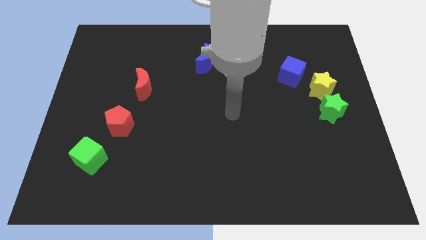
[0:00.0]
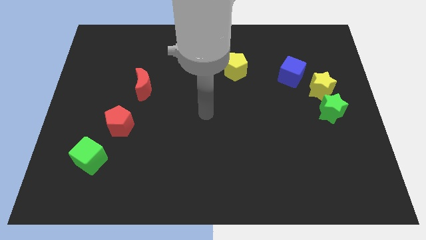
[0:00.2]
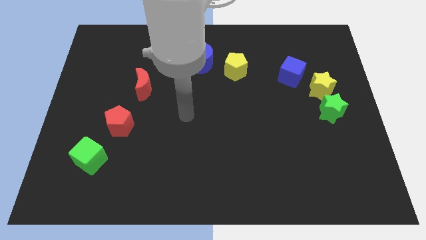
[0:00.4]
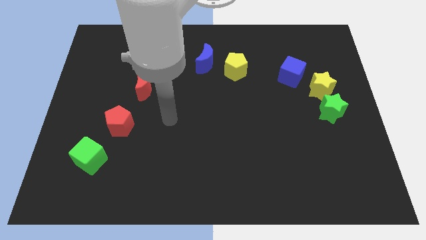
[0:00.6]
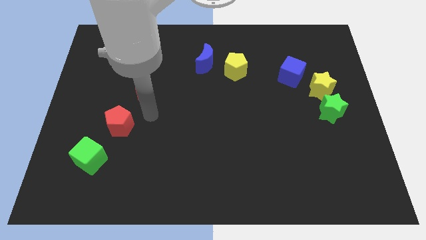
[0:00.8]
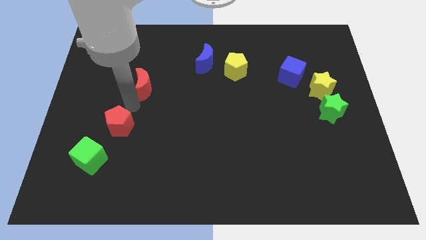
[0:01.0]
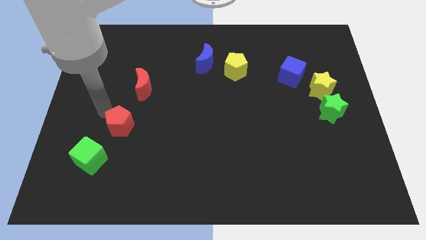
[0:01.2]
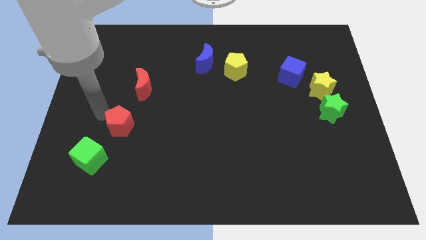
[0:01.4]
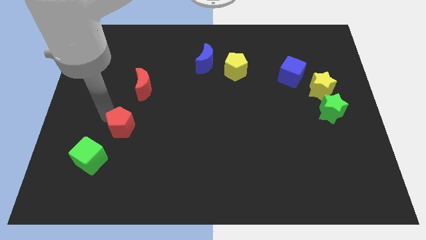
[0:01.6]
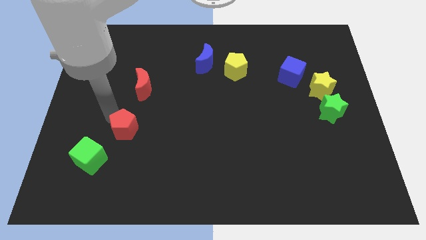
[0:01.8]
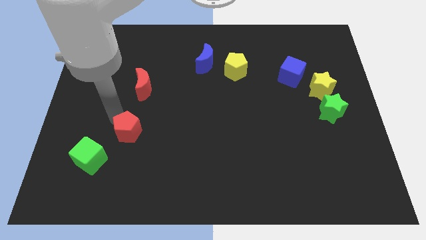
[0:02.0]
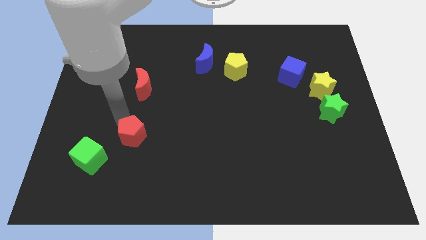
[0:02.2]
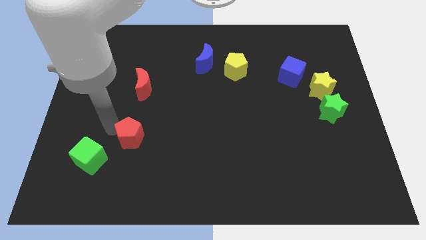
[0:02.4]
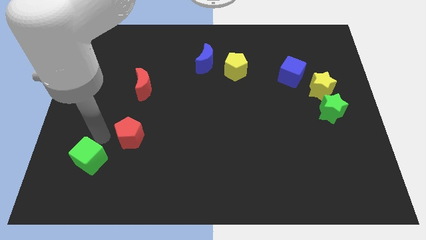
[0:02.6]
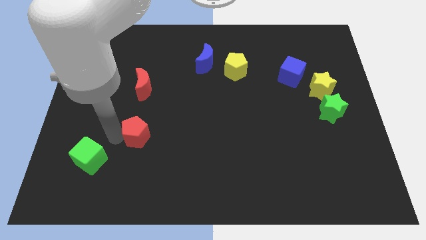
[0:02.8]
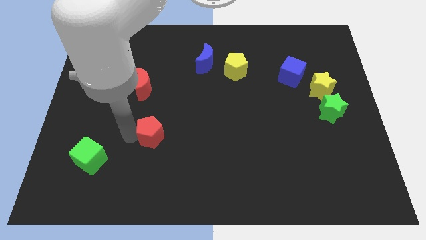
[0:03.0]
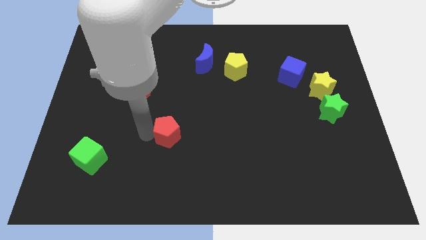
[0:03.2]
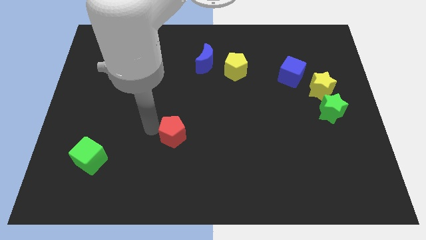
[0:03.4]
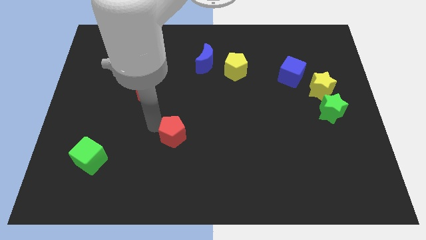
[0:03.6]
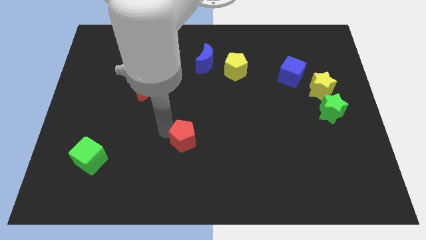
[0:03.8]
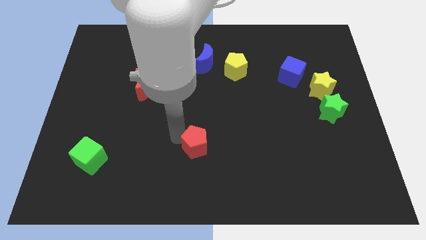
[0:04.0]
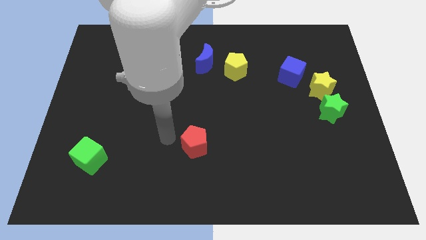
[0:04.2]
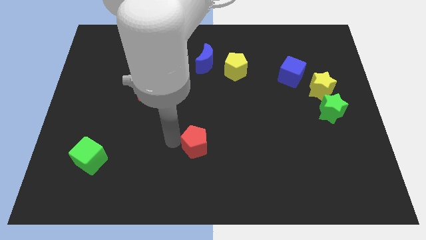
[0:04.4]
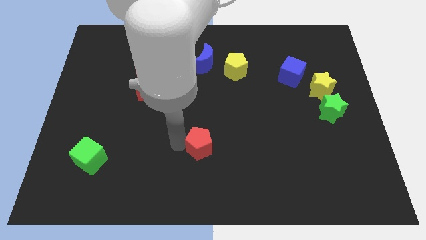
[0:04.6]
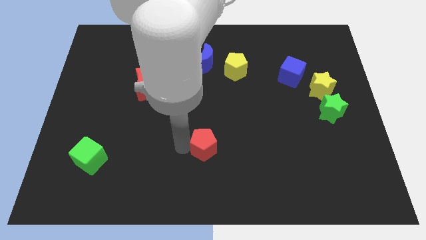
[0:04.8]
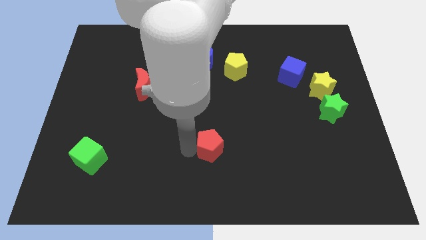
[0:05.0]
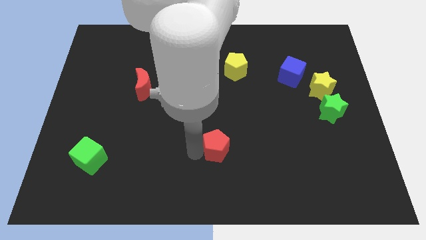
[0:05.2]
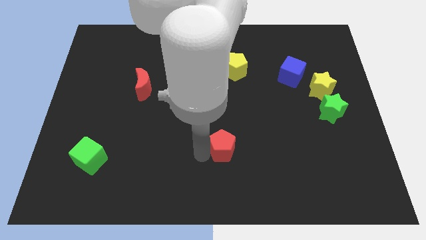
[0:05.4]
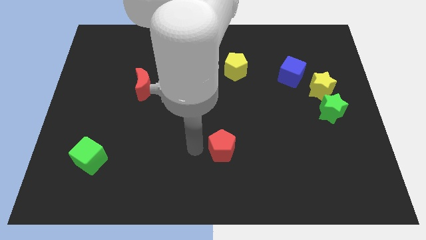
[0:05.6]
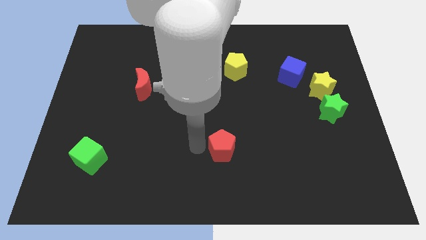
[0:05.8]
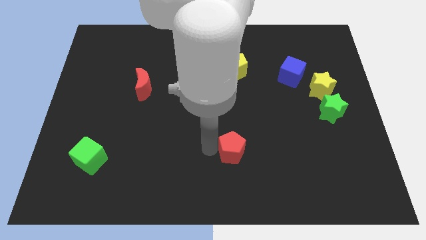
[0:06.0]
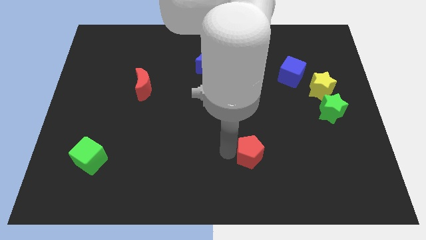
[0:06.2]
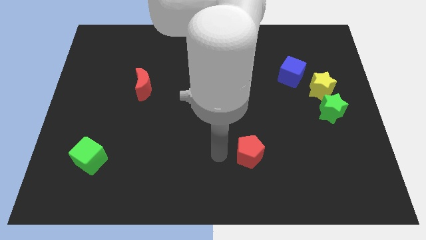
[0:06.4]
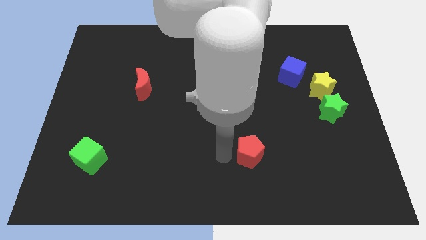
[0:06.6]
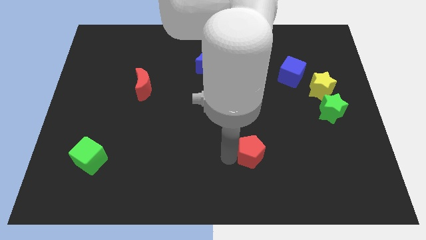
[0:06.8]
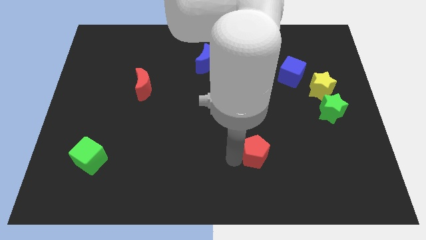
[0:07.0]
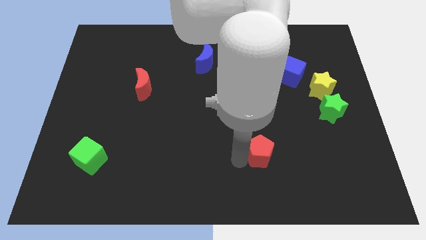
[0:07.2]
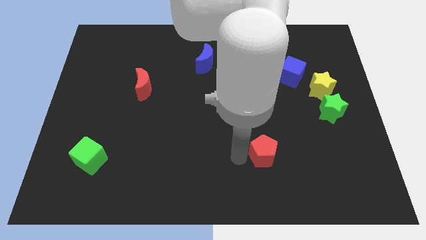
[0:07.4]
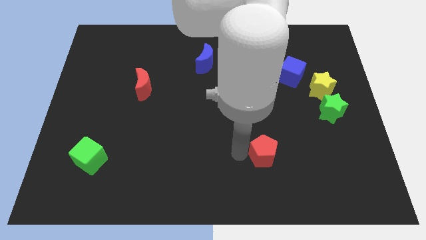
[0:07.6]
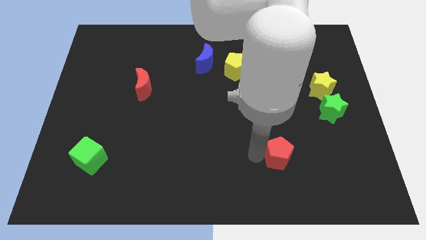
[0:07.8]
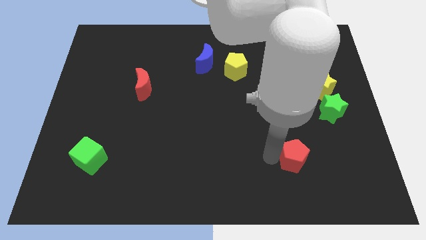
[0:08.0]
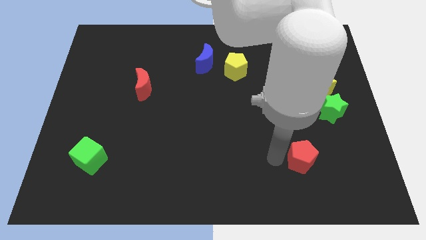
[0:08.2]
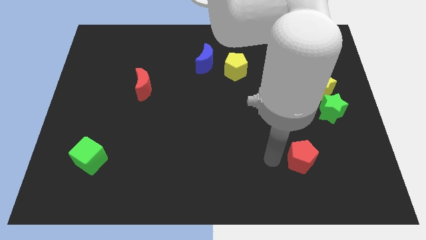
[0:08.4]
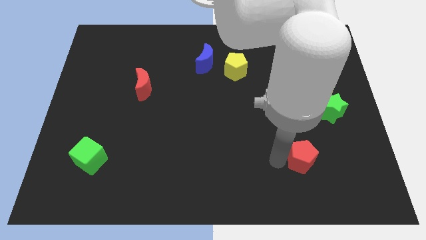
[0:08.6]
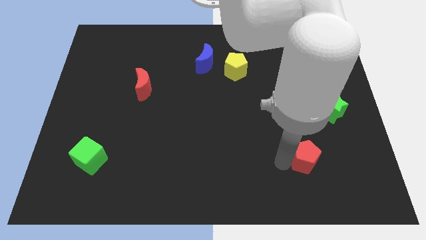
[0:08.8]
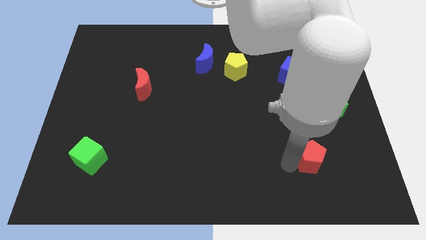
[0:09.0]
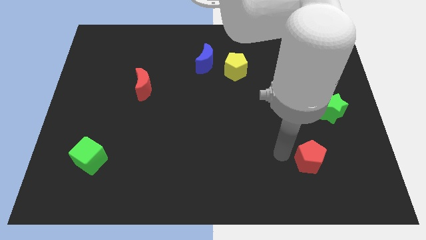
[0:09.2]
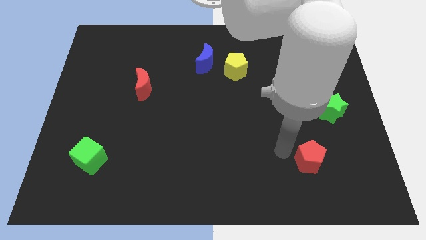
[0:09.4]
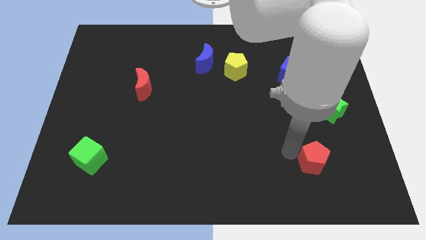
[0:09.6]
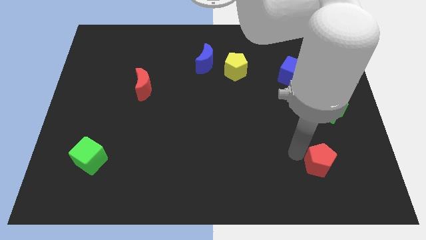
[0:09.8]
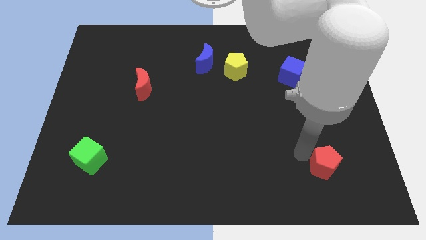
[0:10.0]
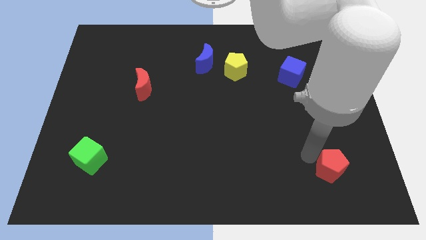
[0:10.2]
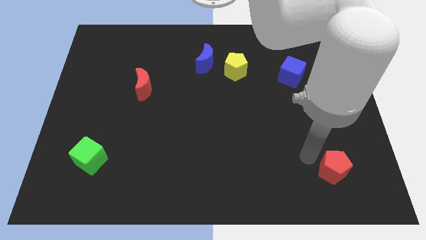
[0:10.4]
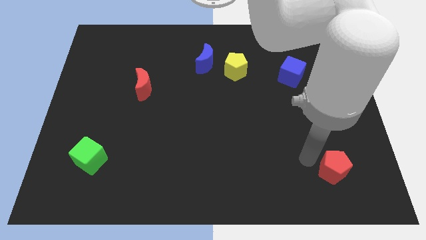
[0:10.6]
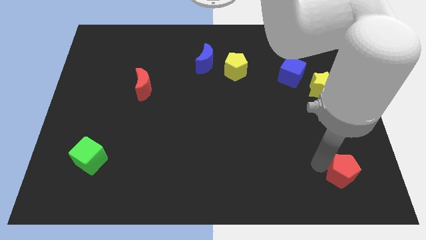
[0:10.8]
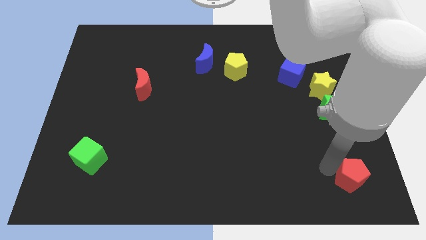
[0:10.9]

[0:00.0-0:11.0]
move the red pentagon to the bottom right

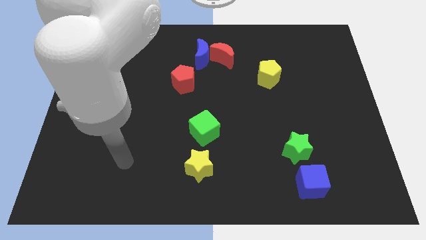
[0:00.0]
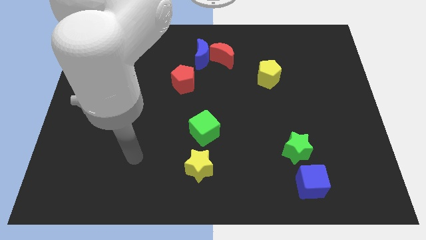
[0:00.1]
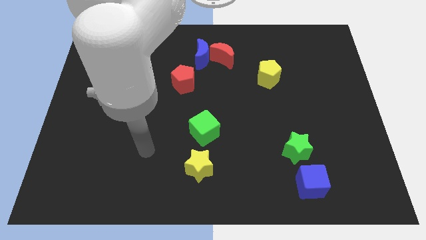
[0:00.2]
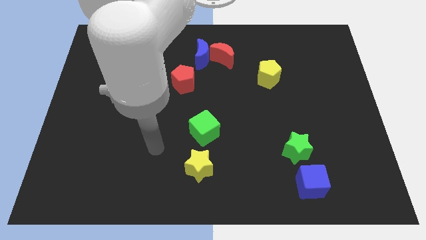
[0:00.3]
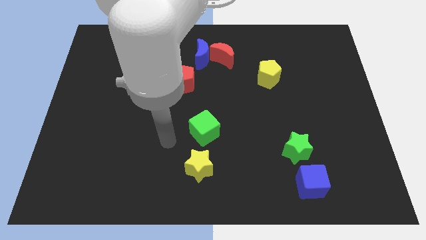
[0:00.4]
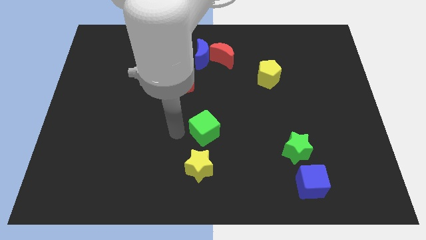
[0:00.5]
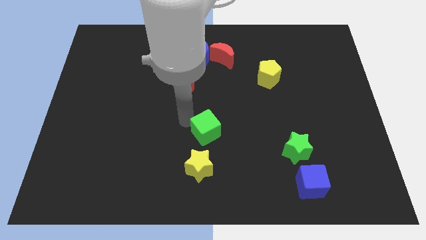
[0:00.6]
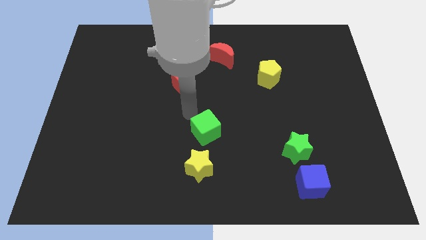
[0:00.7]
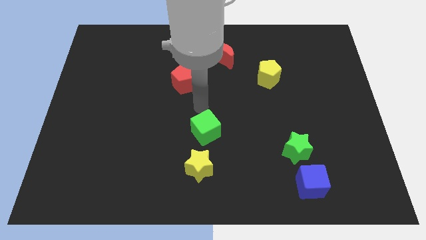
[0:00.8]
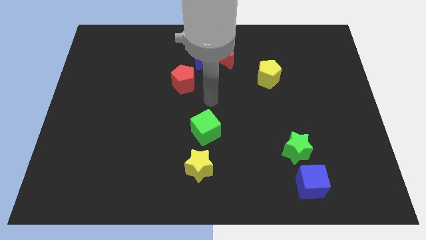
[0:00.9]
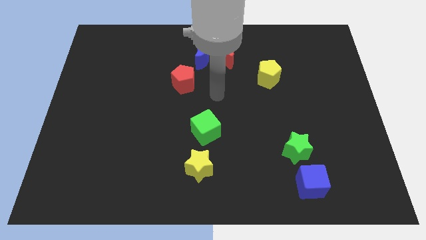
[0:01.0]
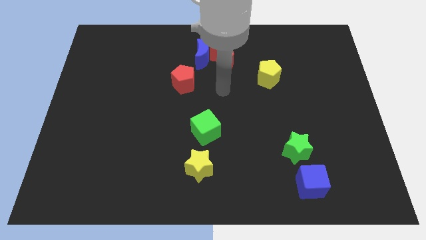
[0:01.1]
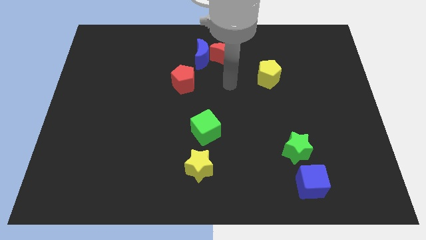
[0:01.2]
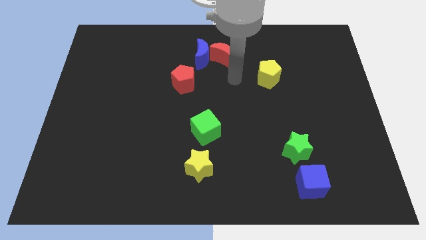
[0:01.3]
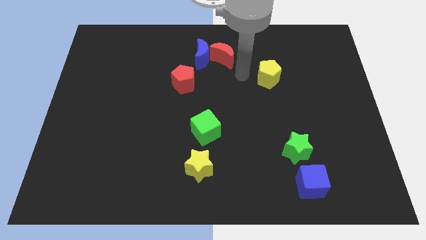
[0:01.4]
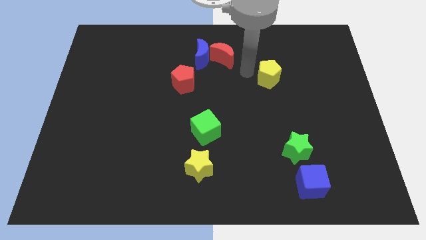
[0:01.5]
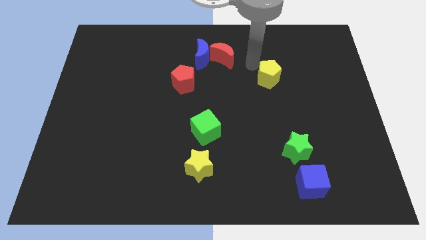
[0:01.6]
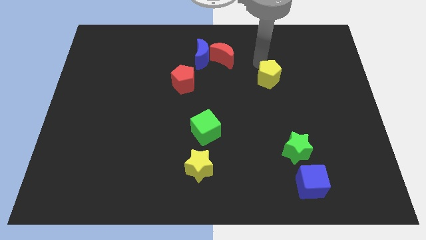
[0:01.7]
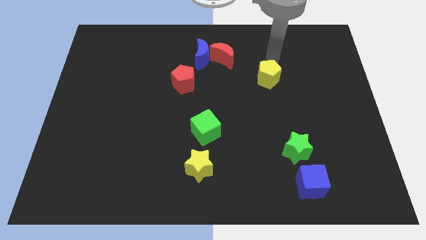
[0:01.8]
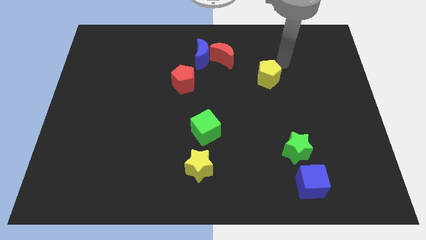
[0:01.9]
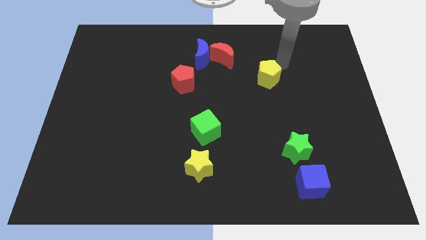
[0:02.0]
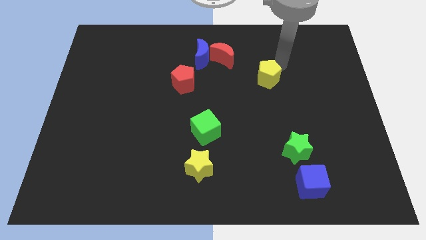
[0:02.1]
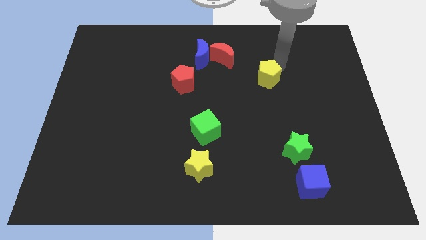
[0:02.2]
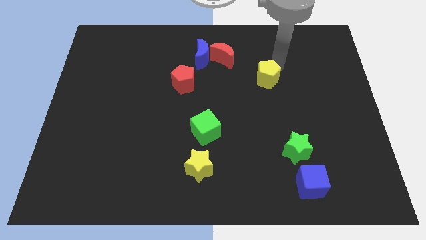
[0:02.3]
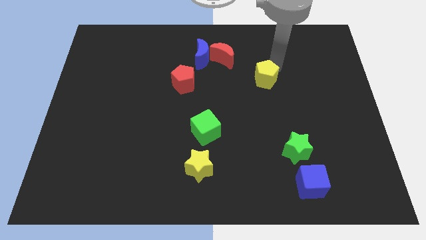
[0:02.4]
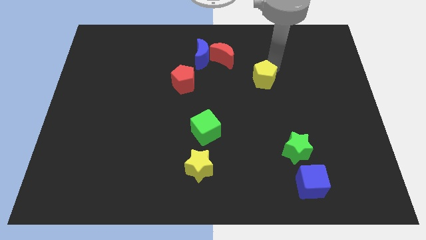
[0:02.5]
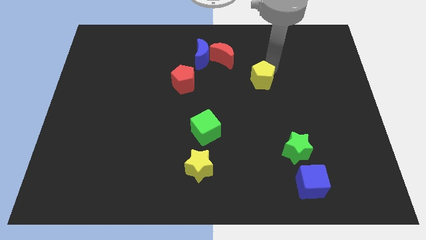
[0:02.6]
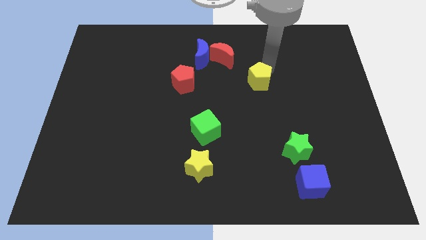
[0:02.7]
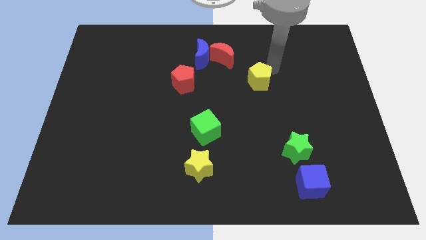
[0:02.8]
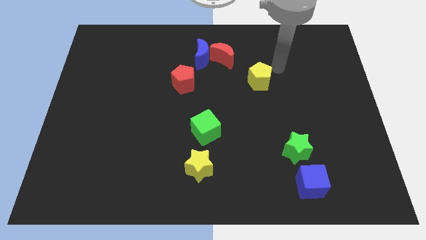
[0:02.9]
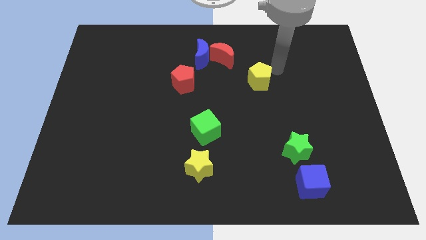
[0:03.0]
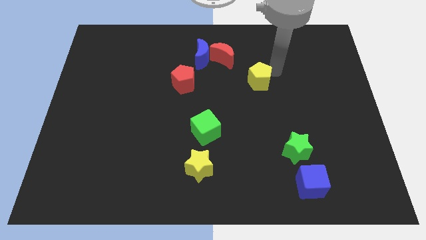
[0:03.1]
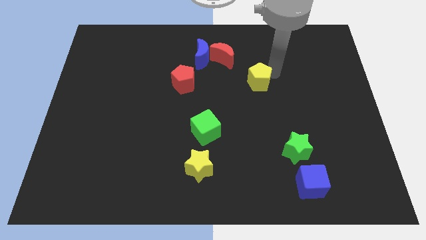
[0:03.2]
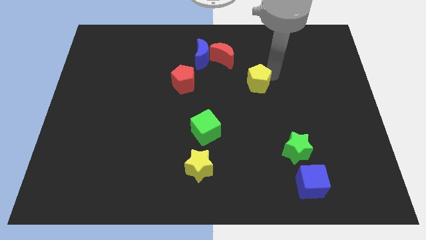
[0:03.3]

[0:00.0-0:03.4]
slide the yellow pentagon to the middle of the board
